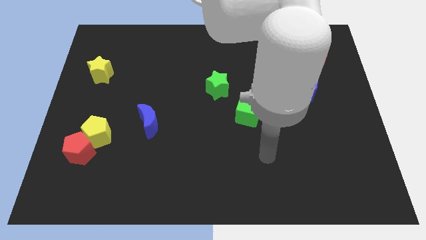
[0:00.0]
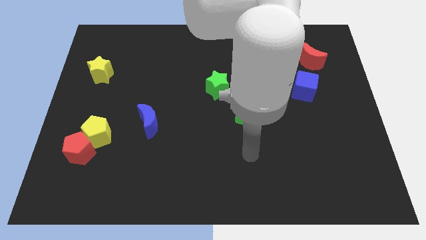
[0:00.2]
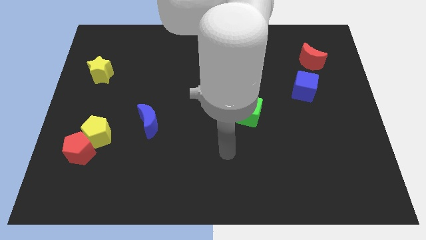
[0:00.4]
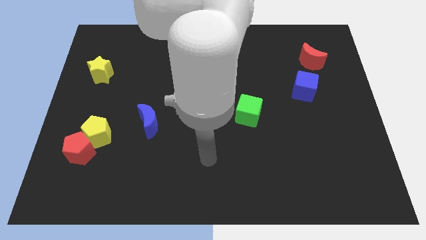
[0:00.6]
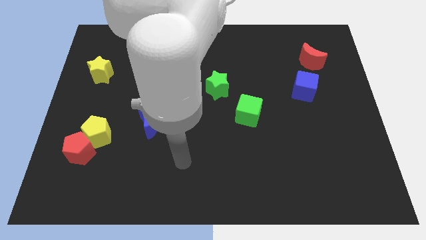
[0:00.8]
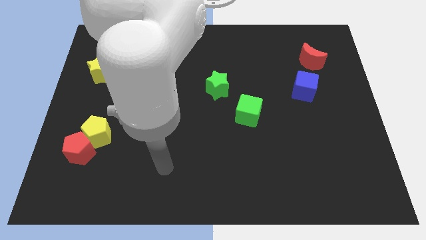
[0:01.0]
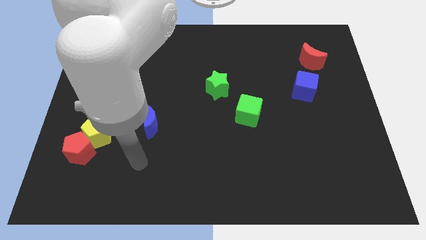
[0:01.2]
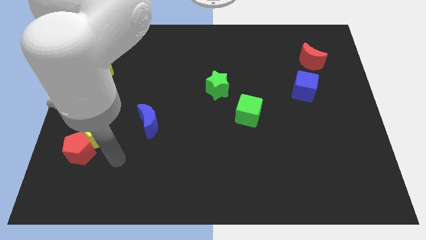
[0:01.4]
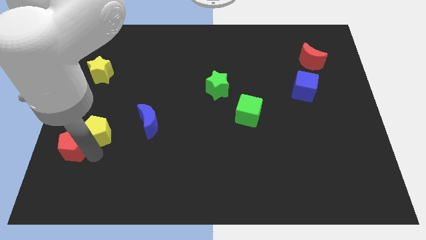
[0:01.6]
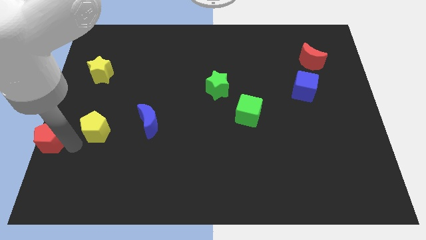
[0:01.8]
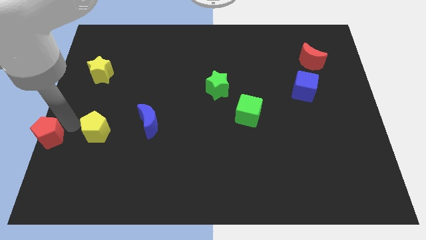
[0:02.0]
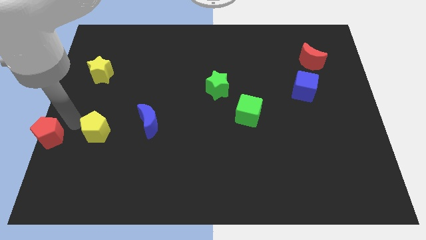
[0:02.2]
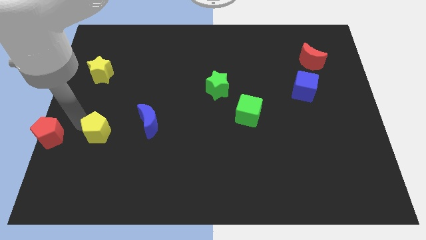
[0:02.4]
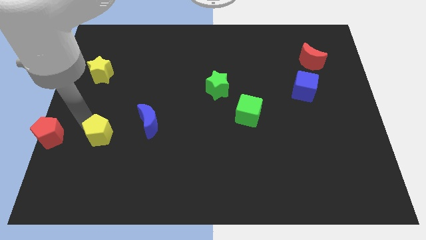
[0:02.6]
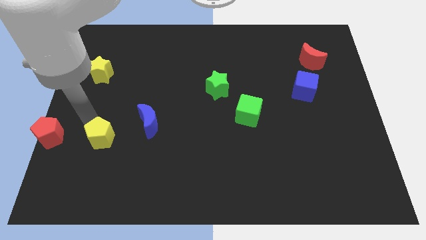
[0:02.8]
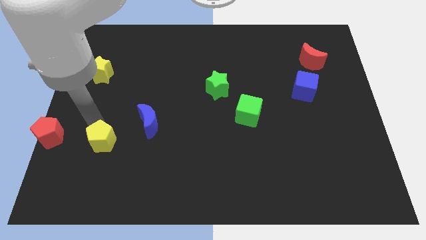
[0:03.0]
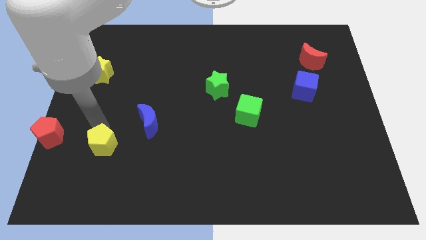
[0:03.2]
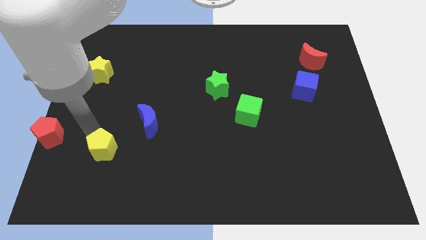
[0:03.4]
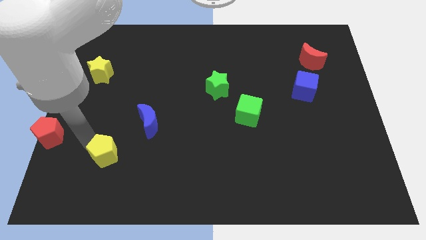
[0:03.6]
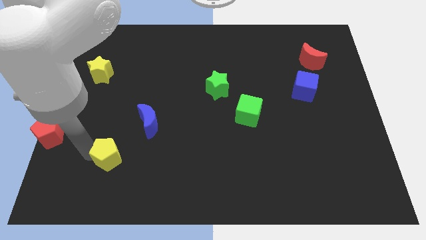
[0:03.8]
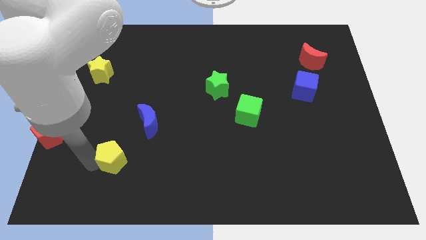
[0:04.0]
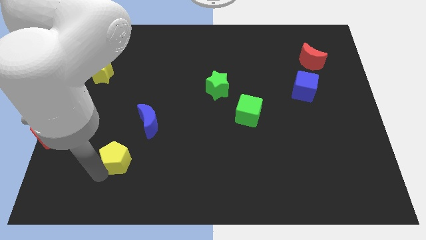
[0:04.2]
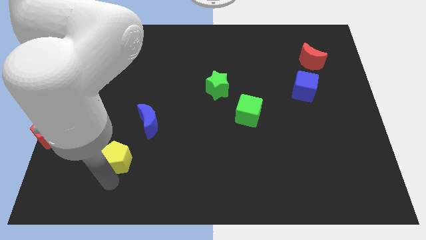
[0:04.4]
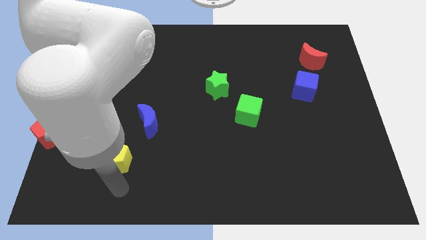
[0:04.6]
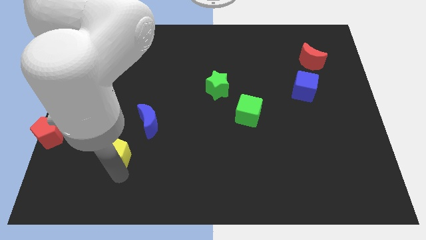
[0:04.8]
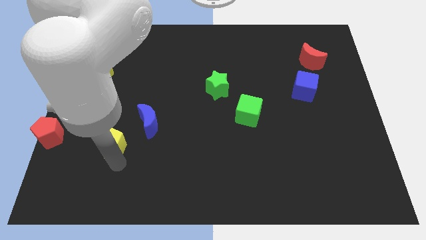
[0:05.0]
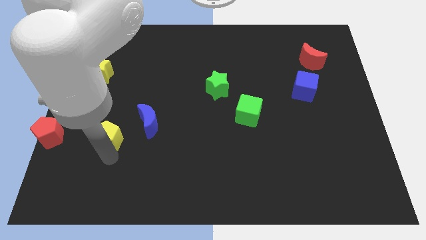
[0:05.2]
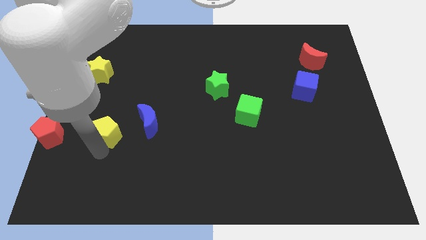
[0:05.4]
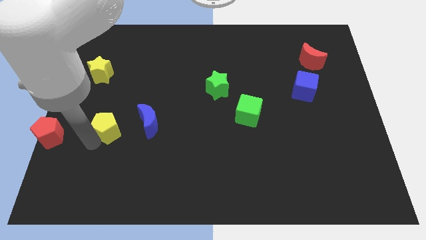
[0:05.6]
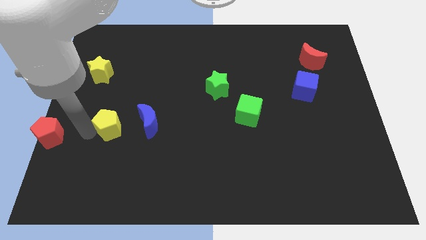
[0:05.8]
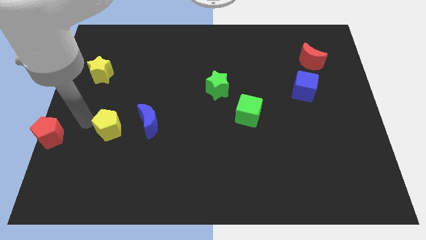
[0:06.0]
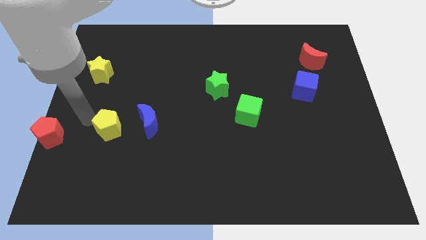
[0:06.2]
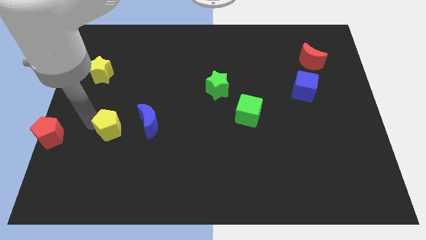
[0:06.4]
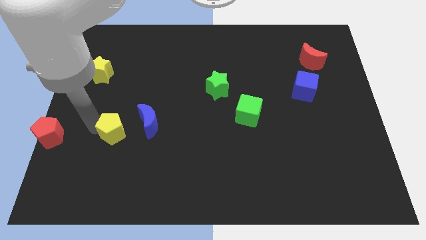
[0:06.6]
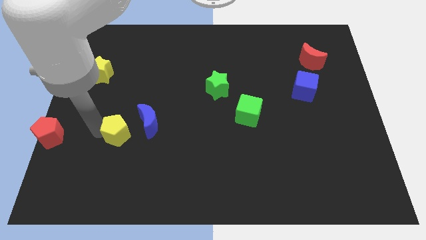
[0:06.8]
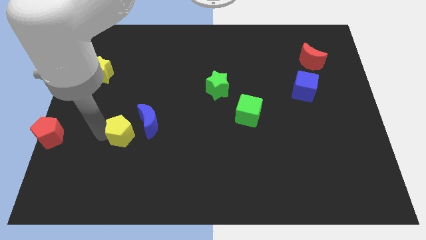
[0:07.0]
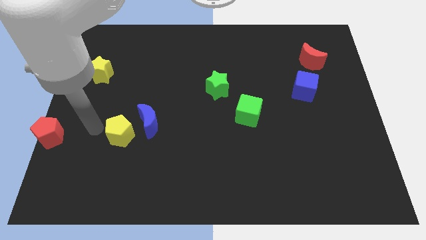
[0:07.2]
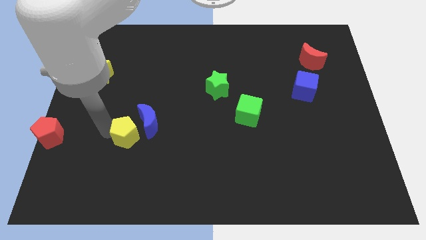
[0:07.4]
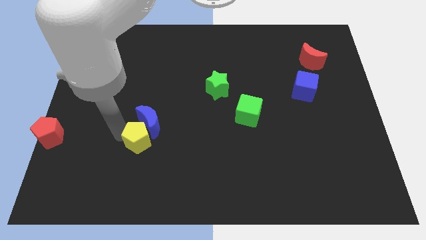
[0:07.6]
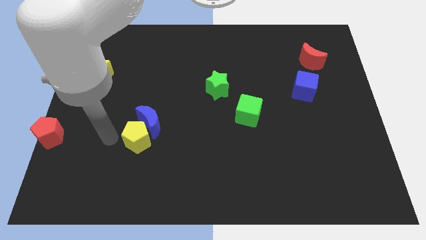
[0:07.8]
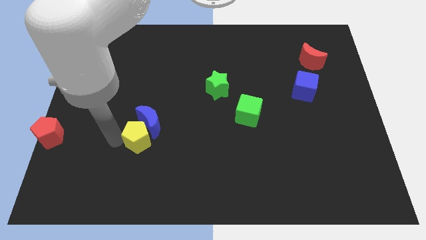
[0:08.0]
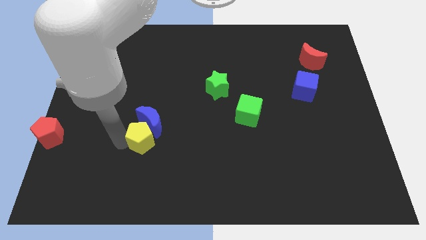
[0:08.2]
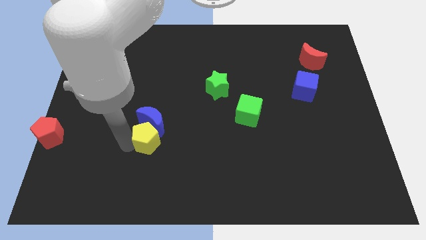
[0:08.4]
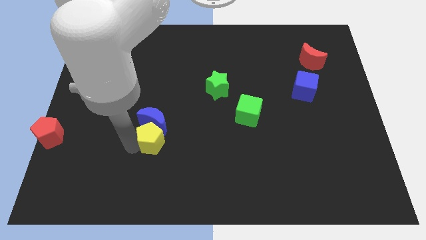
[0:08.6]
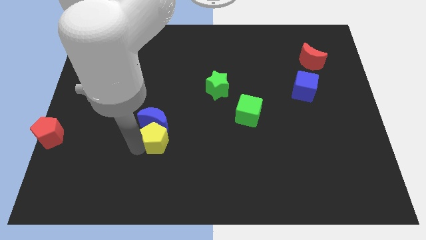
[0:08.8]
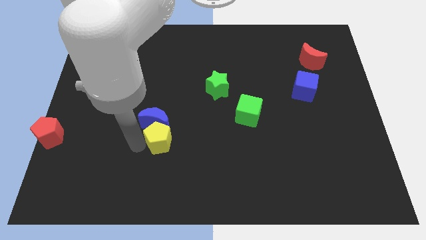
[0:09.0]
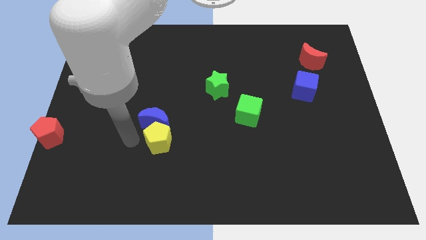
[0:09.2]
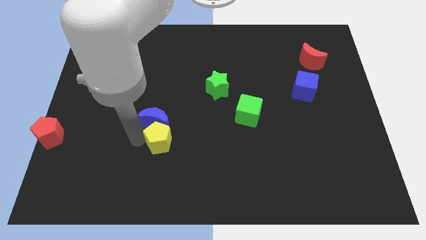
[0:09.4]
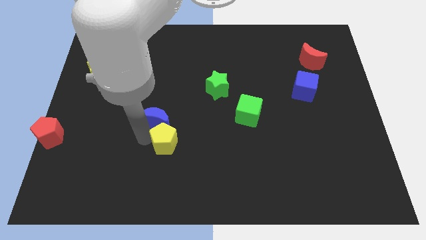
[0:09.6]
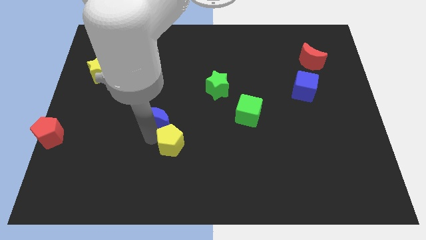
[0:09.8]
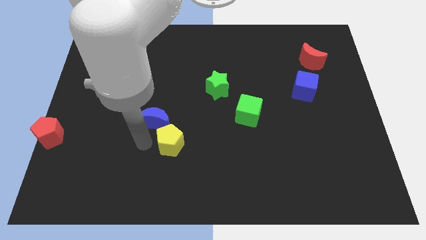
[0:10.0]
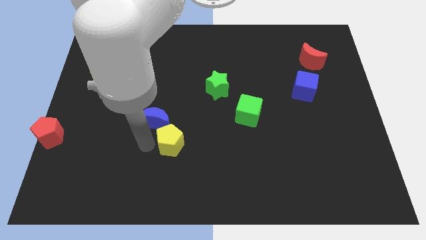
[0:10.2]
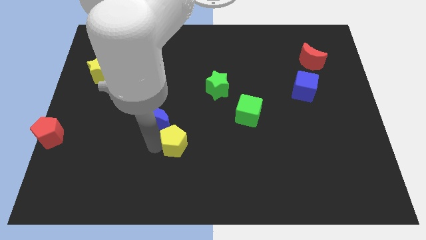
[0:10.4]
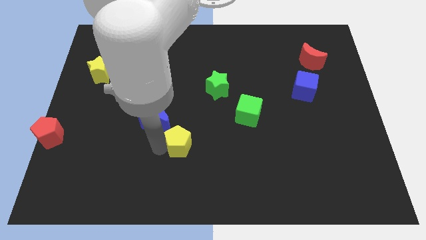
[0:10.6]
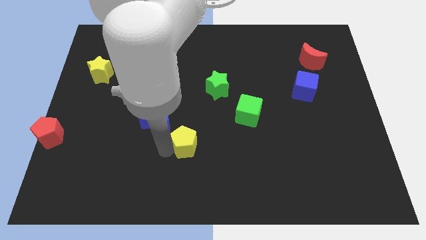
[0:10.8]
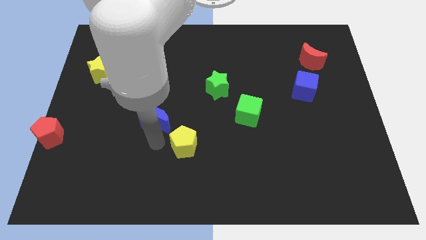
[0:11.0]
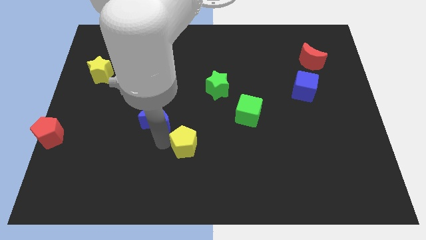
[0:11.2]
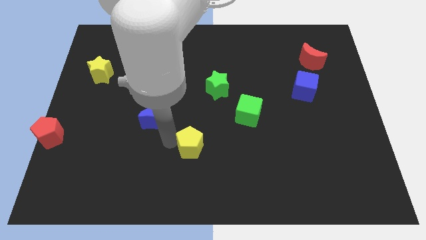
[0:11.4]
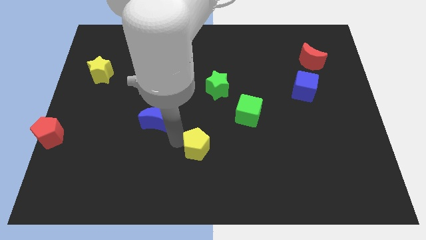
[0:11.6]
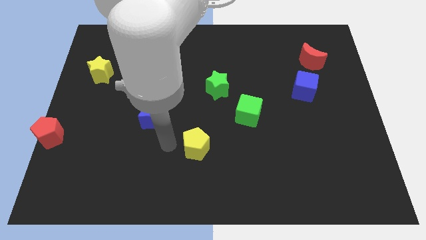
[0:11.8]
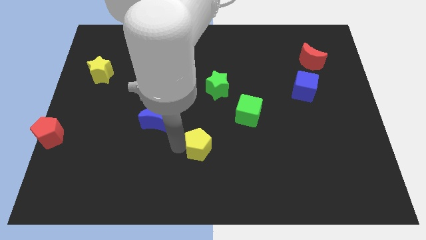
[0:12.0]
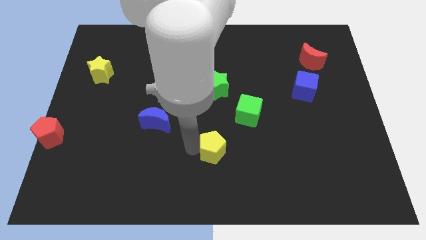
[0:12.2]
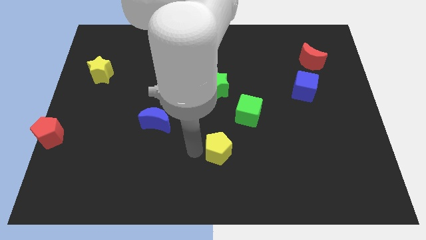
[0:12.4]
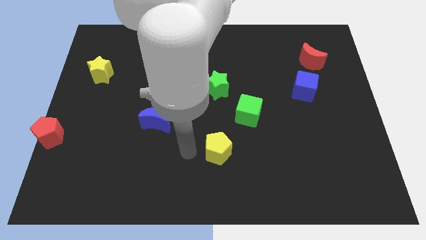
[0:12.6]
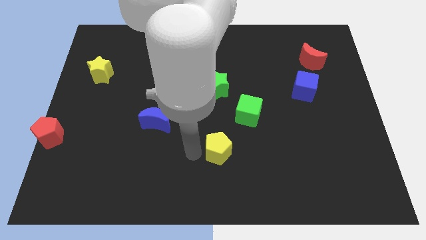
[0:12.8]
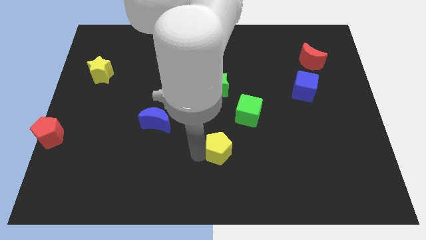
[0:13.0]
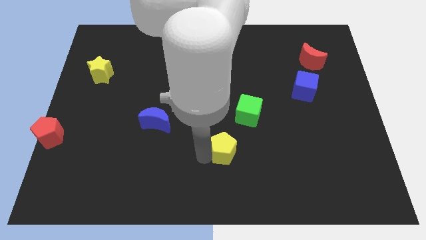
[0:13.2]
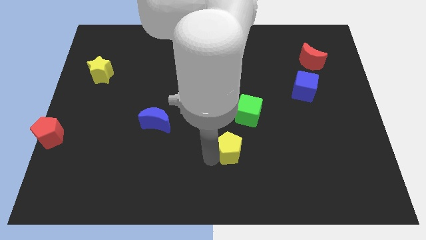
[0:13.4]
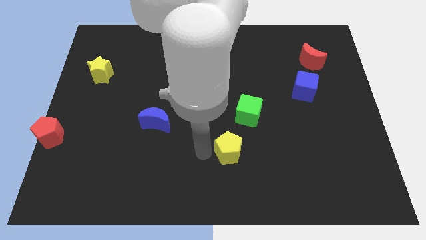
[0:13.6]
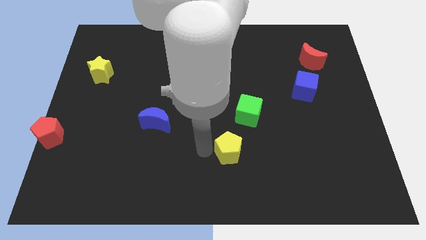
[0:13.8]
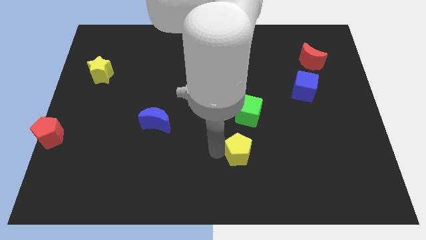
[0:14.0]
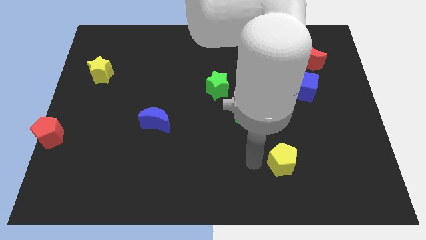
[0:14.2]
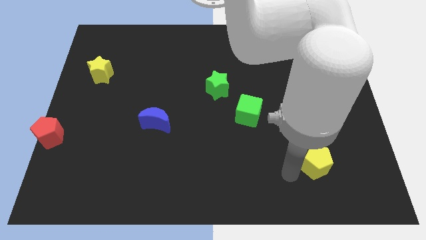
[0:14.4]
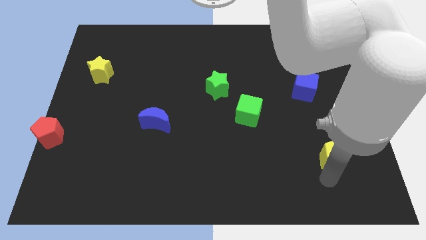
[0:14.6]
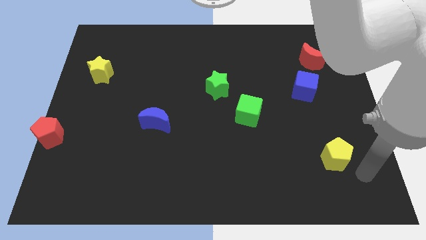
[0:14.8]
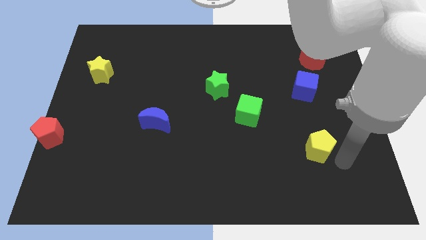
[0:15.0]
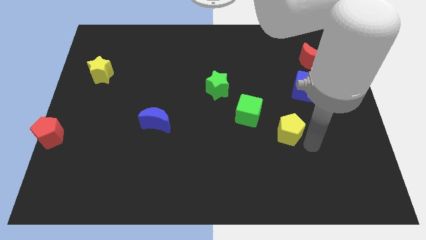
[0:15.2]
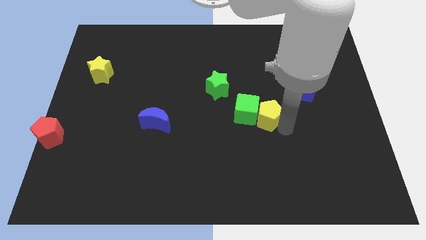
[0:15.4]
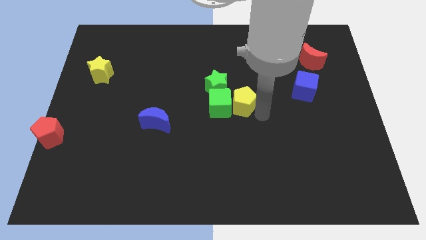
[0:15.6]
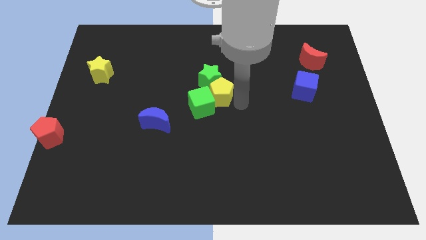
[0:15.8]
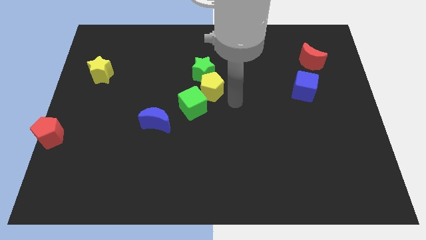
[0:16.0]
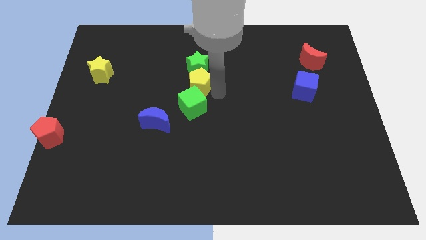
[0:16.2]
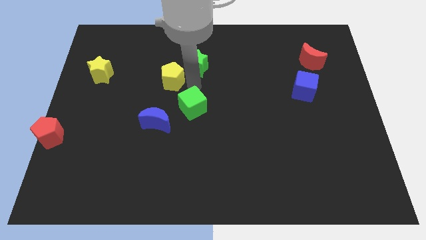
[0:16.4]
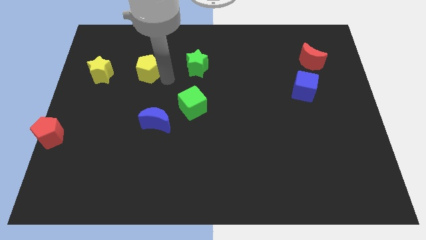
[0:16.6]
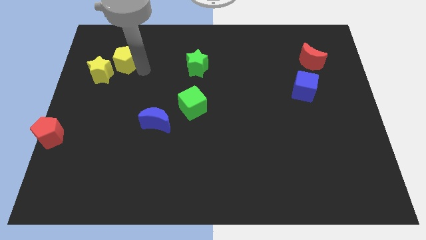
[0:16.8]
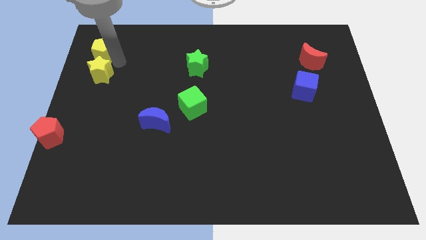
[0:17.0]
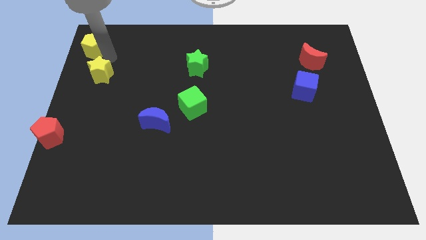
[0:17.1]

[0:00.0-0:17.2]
push the yellow pentagon to the top left
